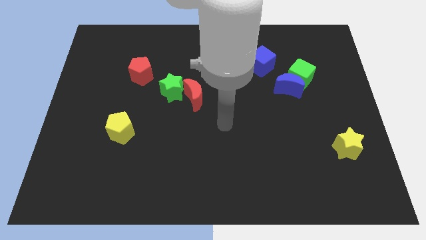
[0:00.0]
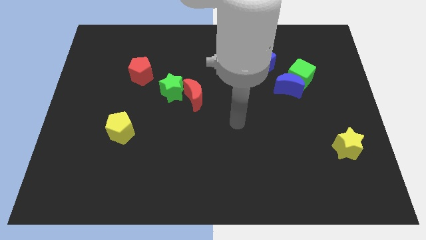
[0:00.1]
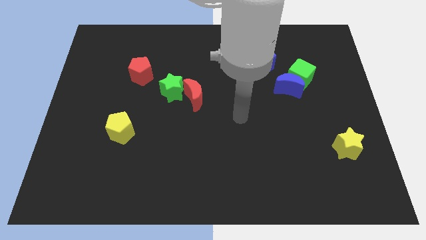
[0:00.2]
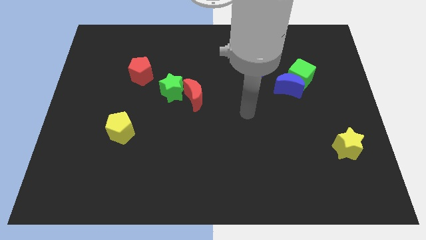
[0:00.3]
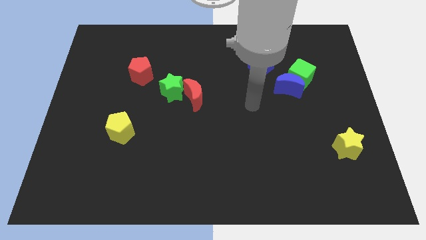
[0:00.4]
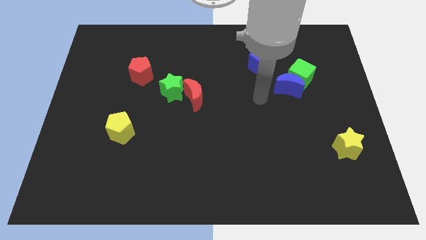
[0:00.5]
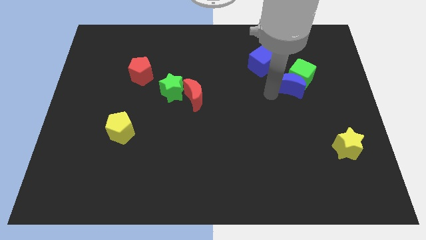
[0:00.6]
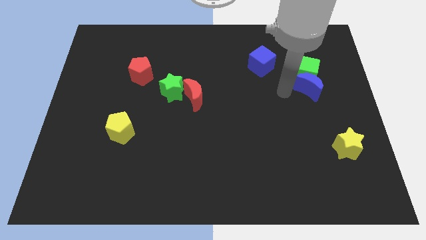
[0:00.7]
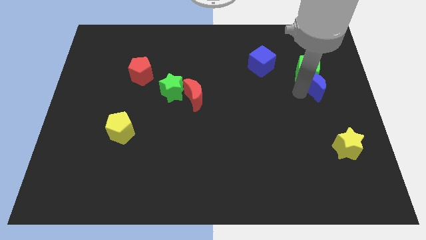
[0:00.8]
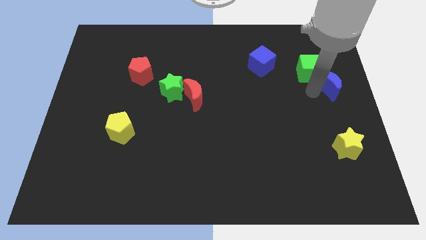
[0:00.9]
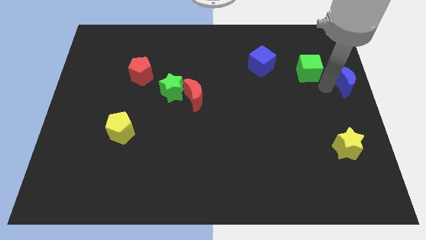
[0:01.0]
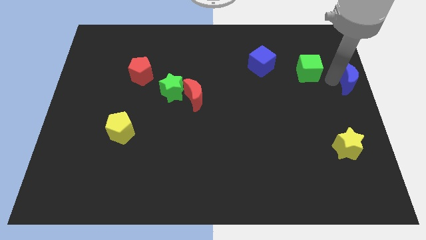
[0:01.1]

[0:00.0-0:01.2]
pull the green cube apart from the blue moon

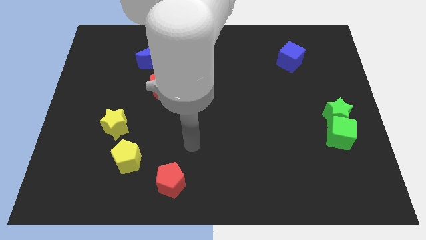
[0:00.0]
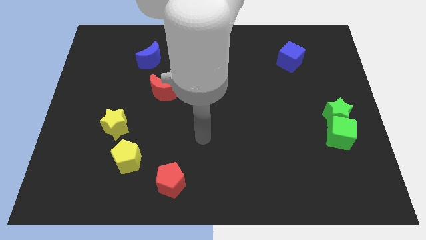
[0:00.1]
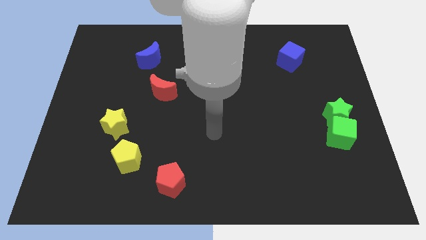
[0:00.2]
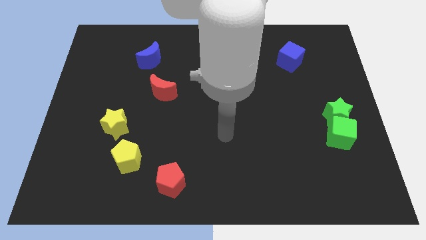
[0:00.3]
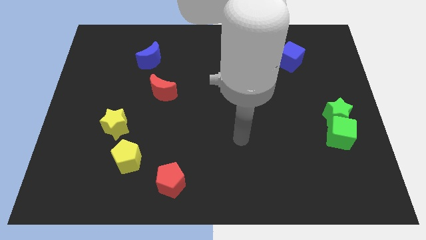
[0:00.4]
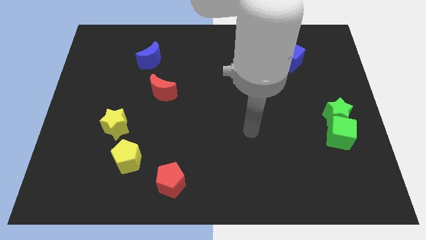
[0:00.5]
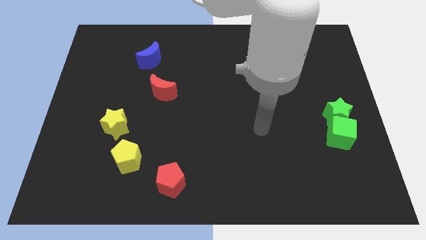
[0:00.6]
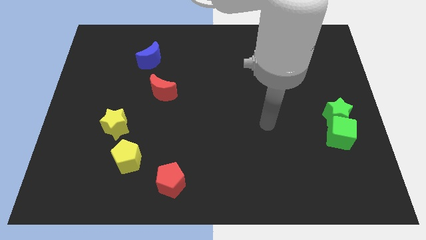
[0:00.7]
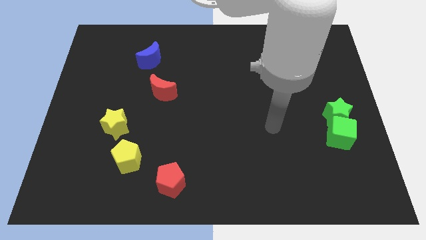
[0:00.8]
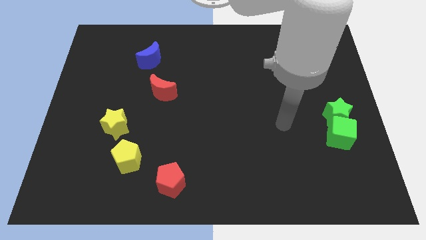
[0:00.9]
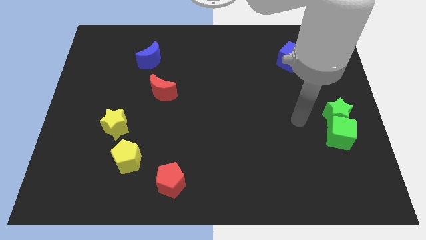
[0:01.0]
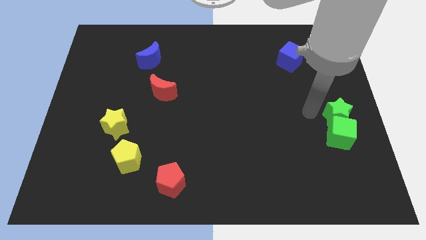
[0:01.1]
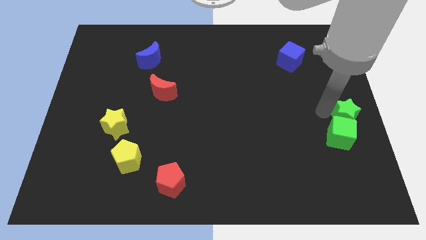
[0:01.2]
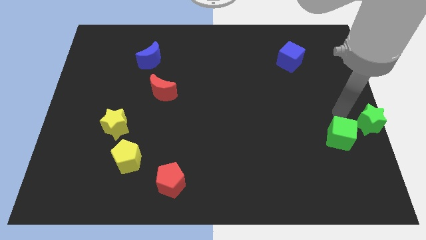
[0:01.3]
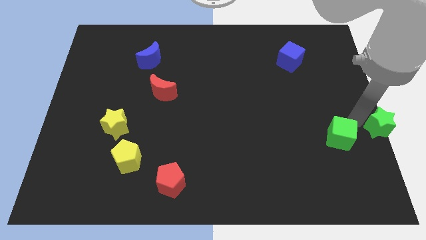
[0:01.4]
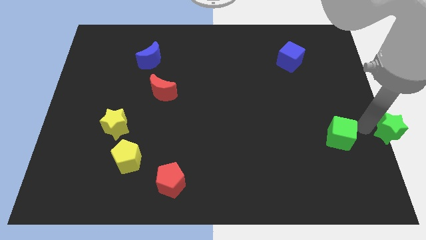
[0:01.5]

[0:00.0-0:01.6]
move the green cube away from the green star

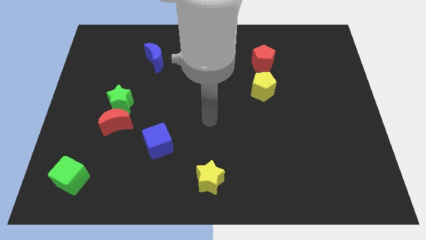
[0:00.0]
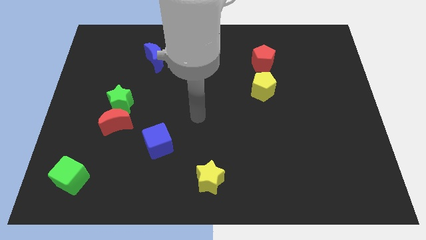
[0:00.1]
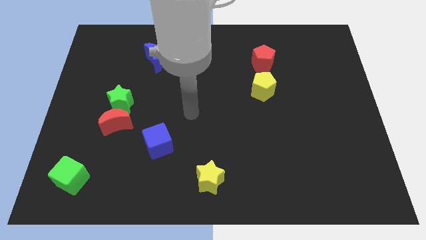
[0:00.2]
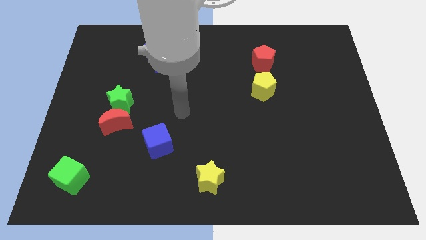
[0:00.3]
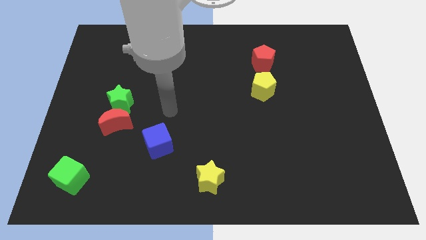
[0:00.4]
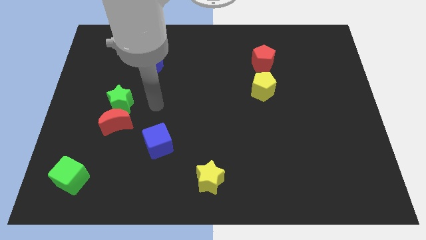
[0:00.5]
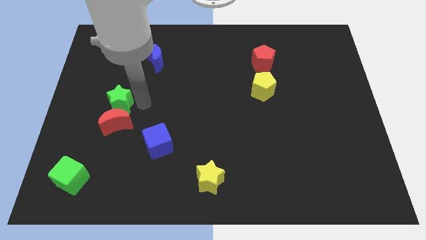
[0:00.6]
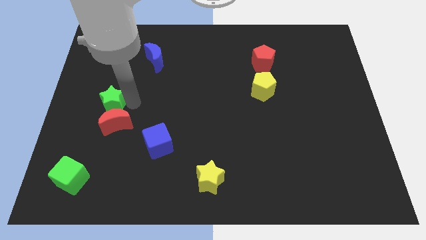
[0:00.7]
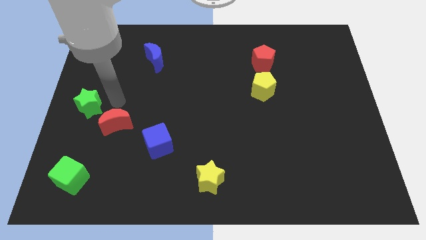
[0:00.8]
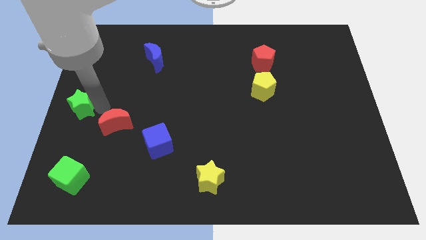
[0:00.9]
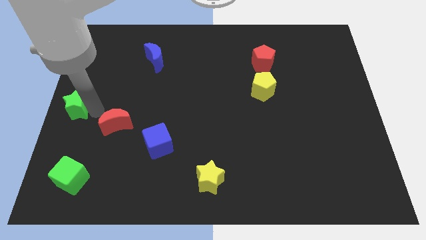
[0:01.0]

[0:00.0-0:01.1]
separate the red moon from the green star

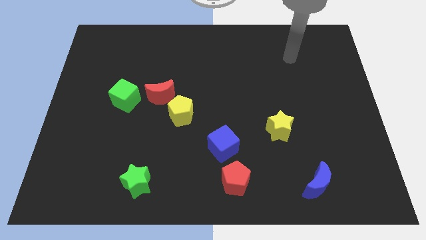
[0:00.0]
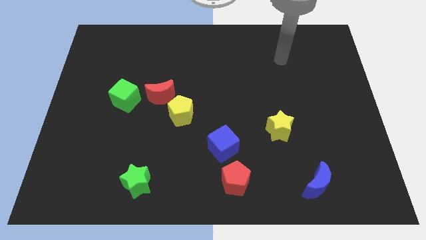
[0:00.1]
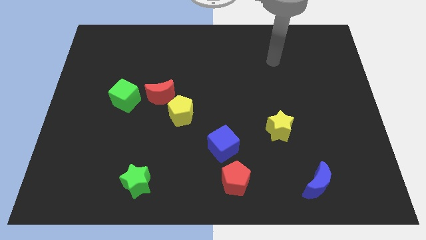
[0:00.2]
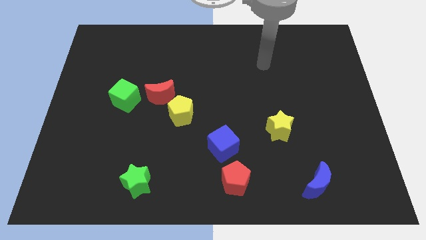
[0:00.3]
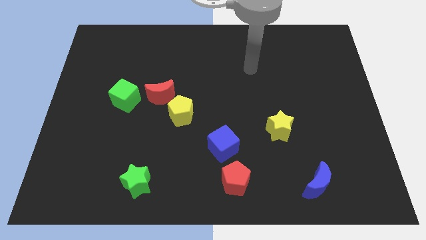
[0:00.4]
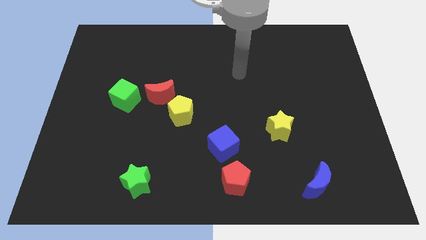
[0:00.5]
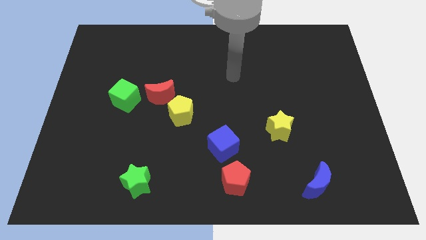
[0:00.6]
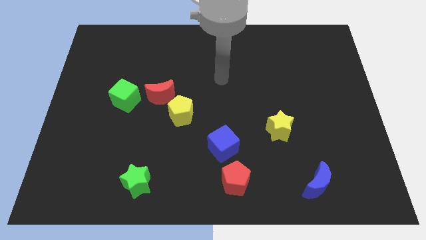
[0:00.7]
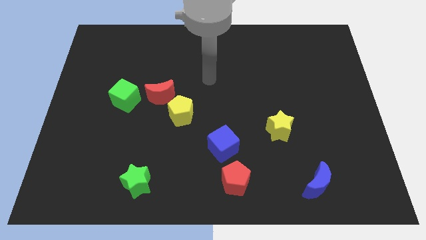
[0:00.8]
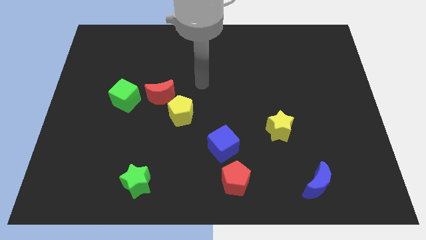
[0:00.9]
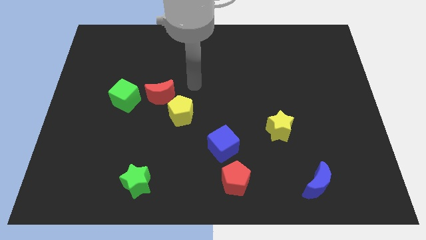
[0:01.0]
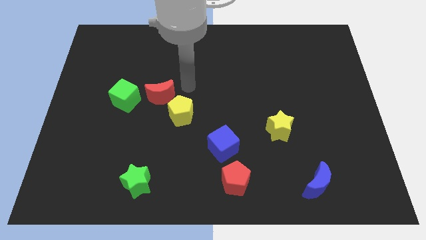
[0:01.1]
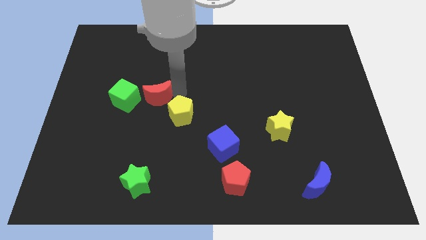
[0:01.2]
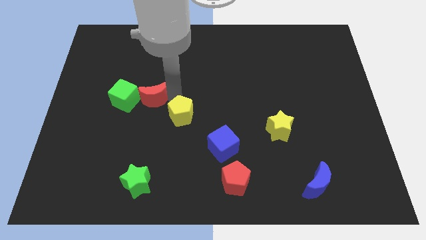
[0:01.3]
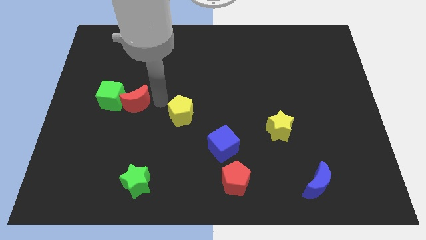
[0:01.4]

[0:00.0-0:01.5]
pull the yellow pentagon apart from the red moon

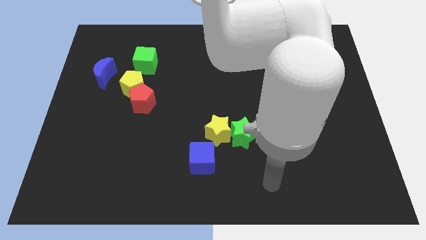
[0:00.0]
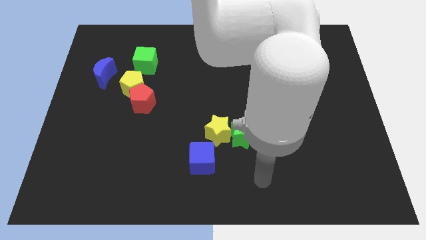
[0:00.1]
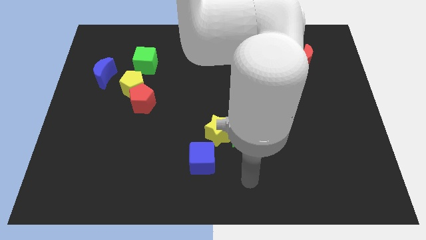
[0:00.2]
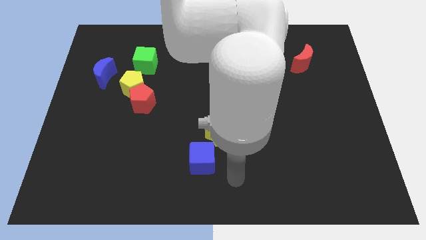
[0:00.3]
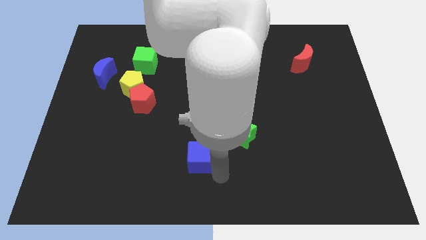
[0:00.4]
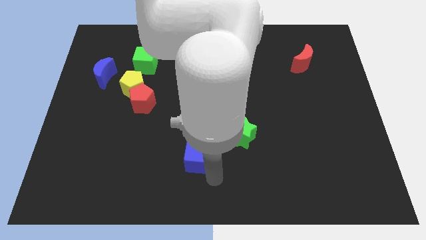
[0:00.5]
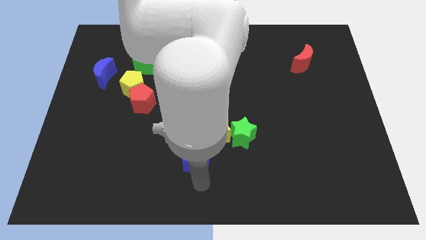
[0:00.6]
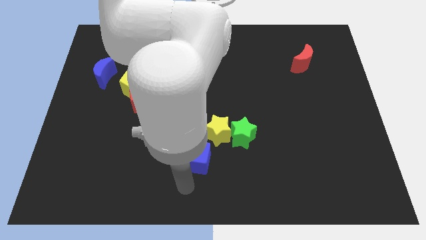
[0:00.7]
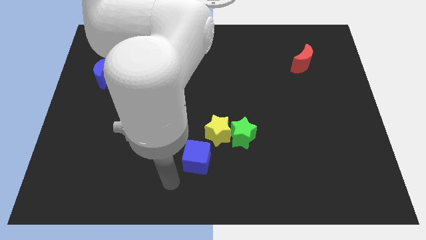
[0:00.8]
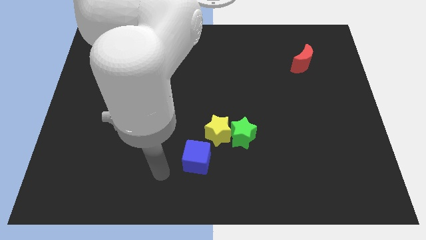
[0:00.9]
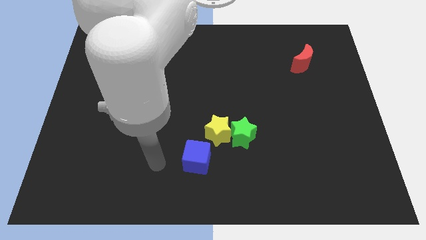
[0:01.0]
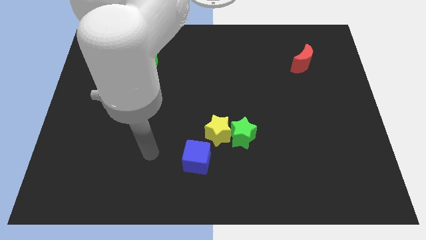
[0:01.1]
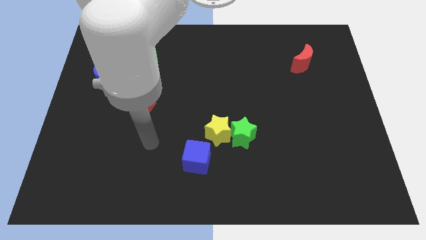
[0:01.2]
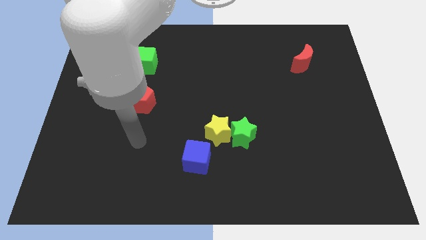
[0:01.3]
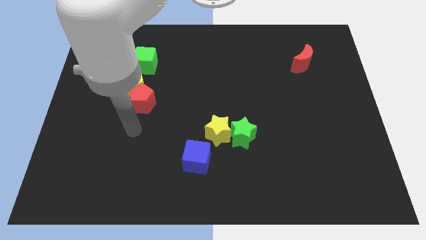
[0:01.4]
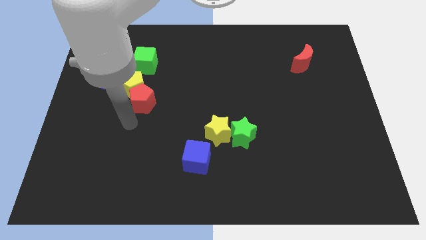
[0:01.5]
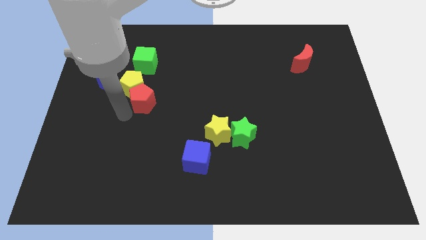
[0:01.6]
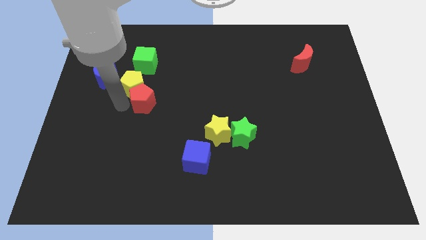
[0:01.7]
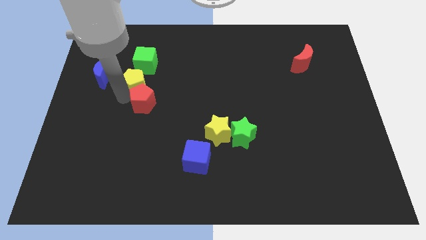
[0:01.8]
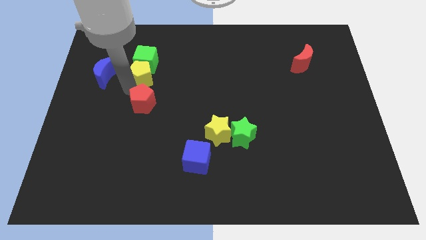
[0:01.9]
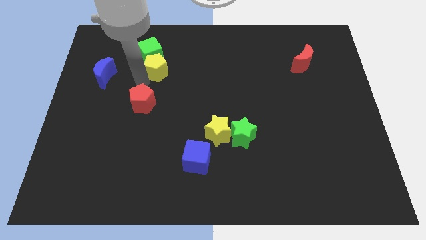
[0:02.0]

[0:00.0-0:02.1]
move the red pentagon away from the yellow pentagon

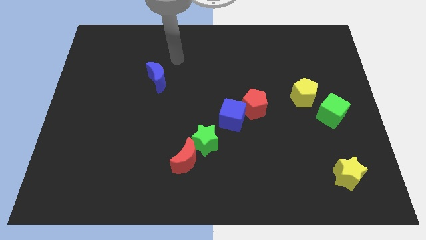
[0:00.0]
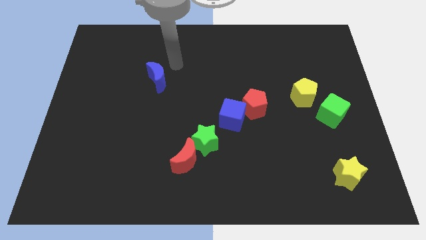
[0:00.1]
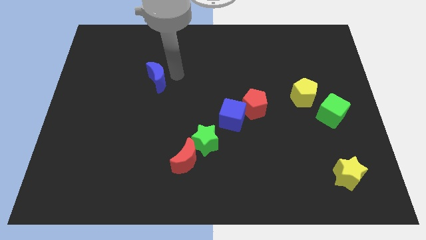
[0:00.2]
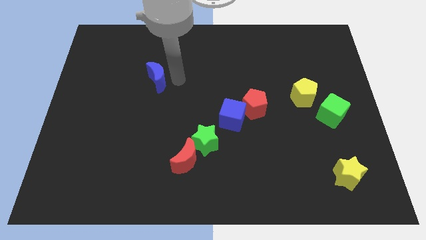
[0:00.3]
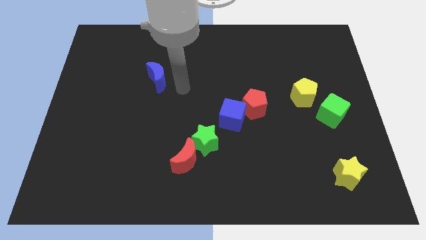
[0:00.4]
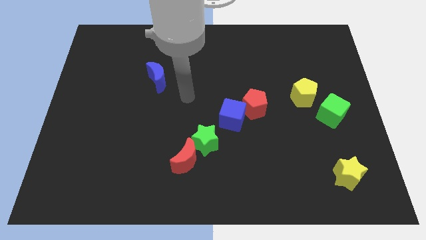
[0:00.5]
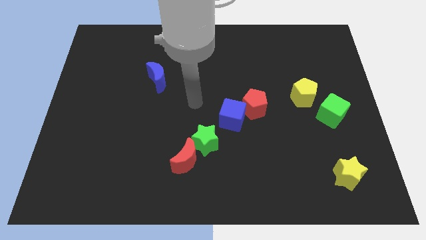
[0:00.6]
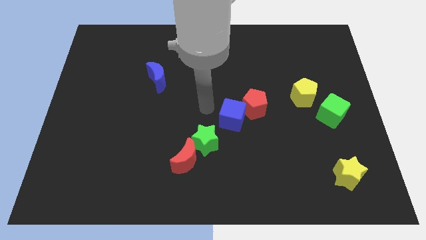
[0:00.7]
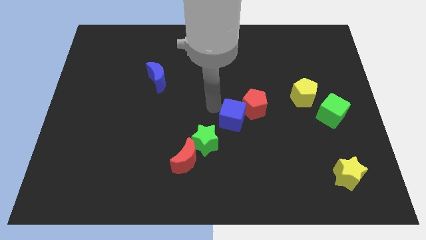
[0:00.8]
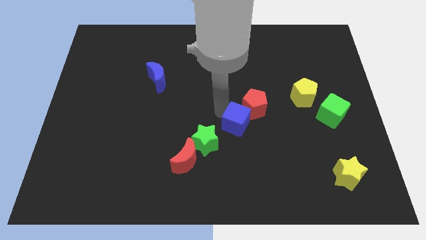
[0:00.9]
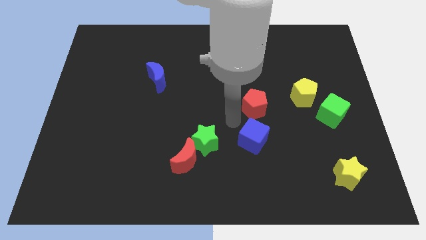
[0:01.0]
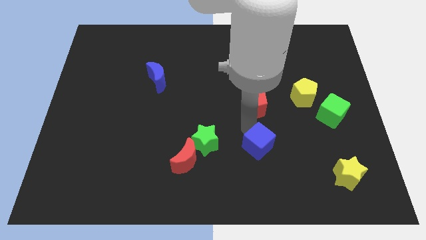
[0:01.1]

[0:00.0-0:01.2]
pull the red pentagon apart from the blue cube

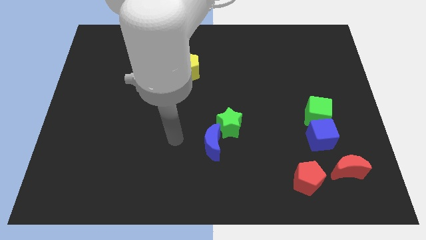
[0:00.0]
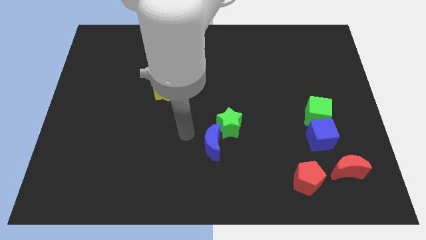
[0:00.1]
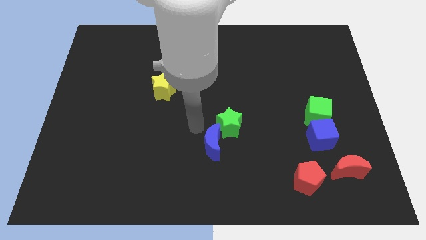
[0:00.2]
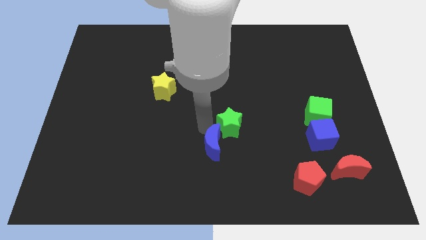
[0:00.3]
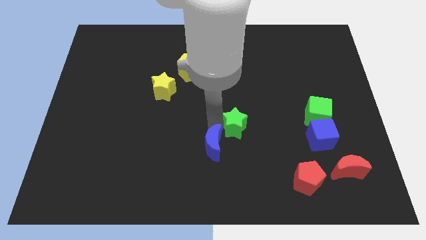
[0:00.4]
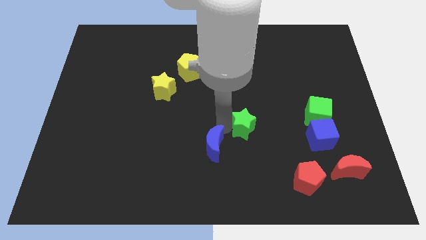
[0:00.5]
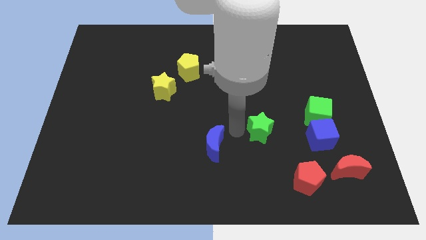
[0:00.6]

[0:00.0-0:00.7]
move the blue moon away from the green star
